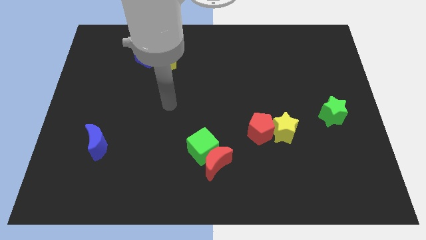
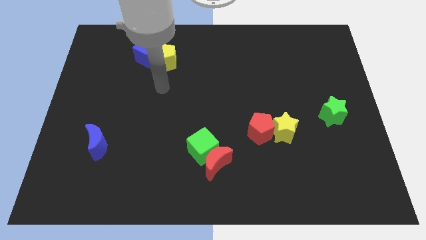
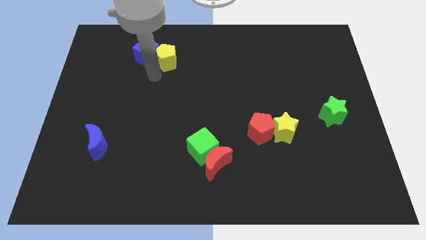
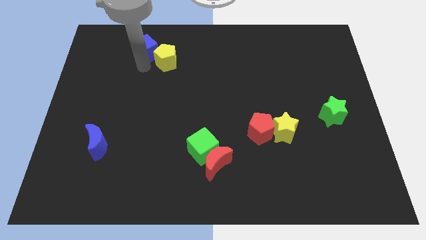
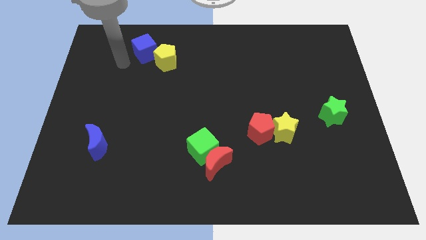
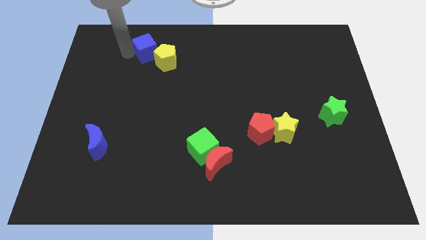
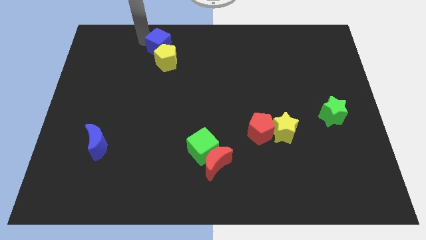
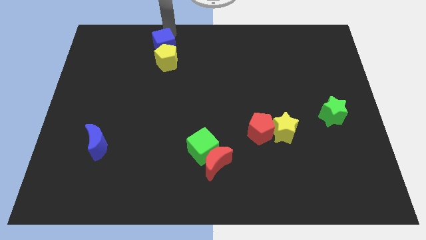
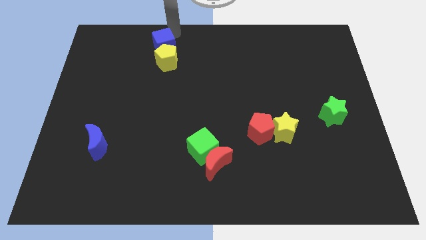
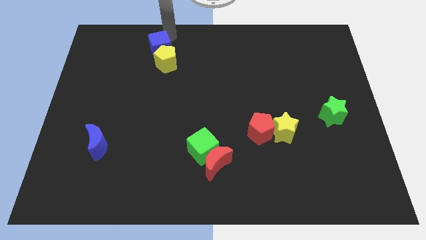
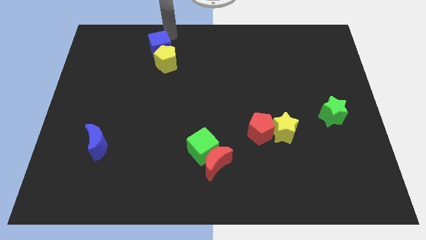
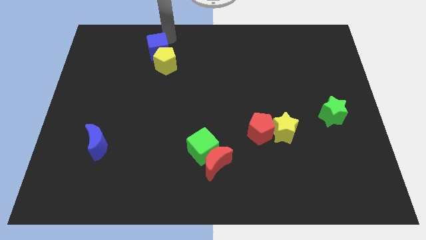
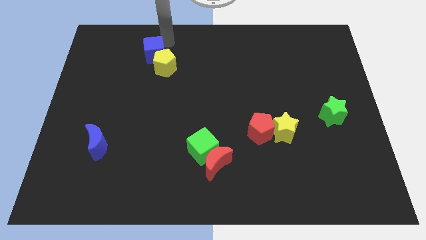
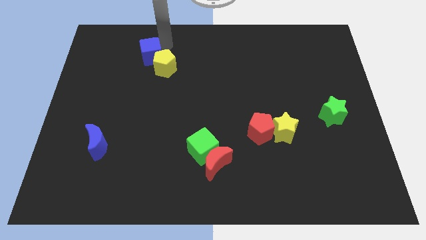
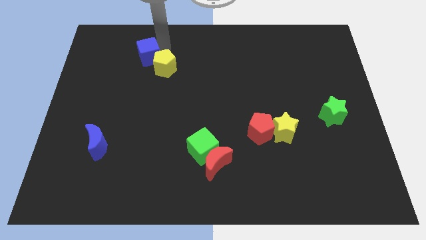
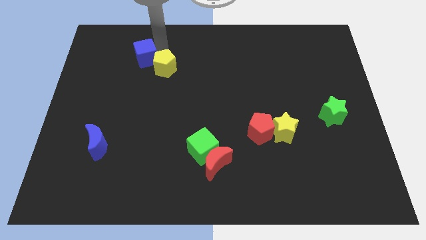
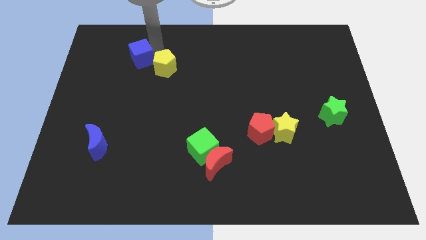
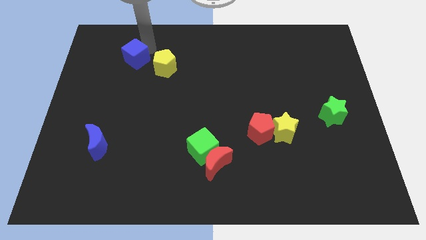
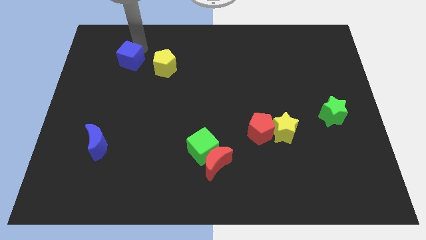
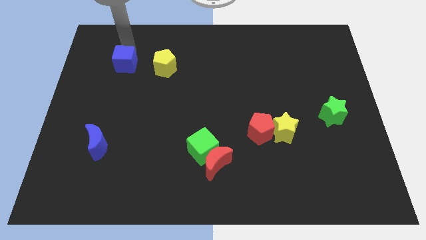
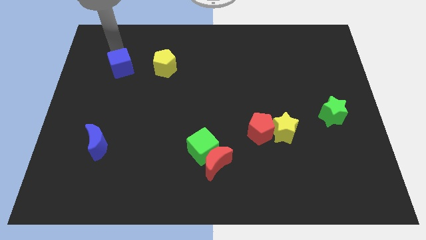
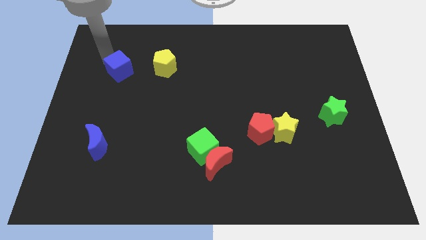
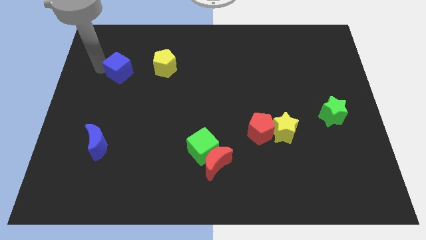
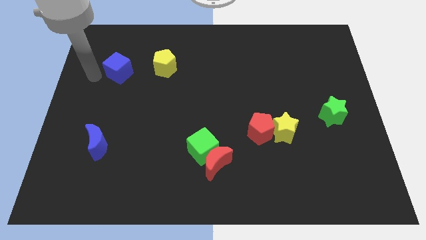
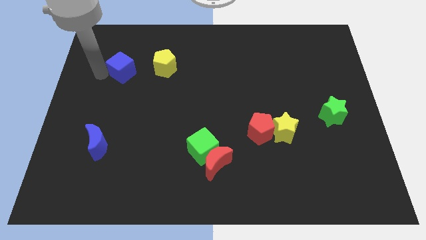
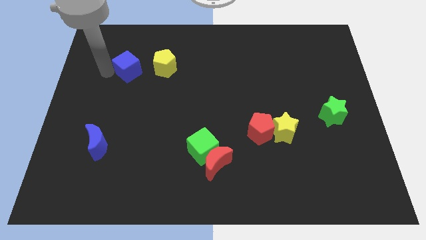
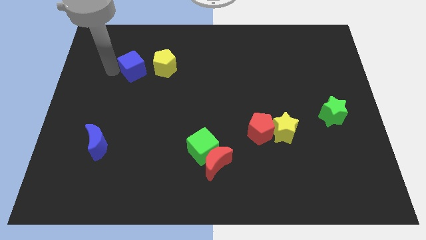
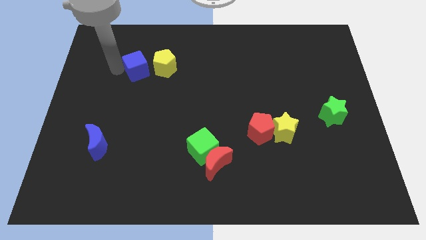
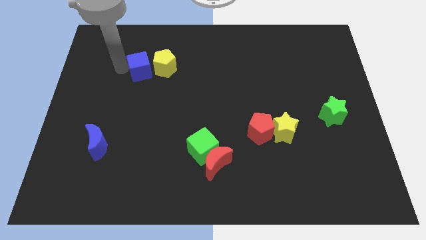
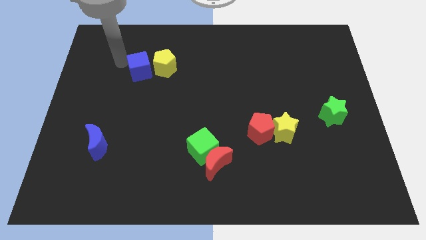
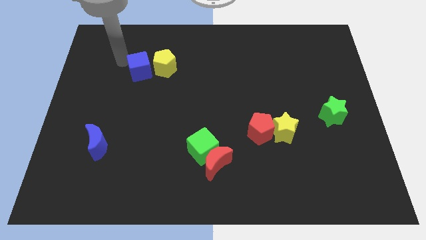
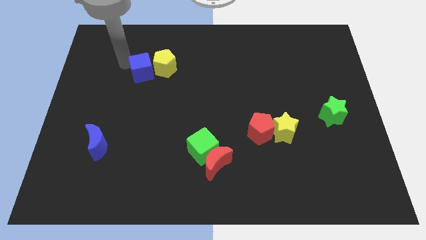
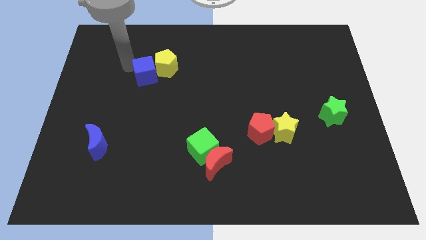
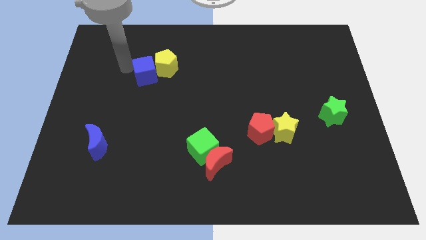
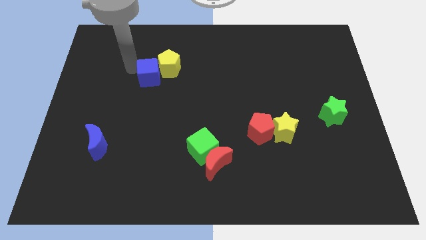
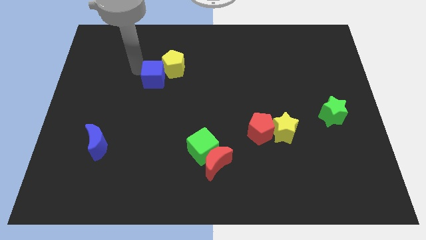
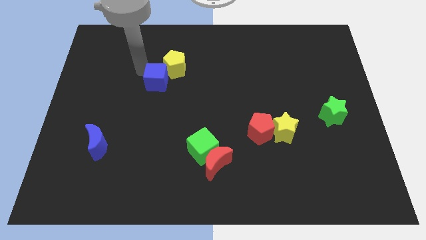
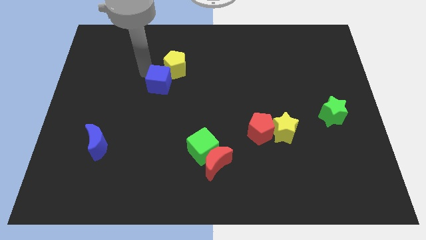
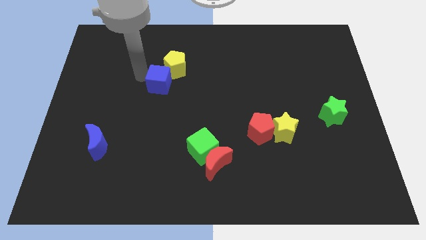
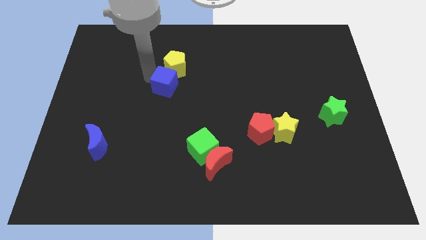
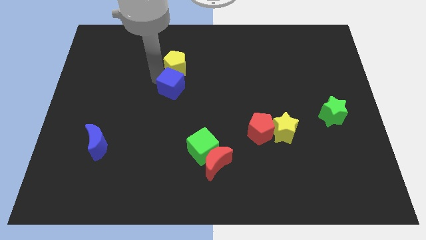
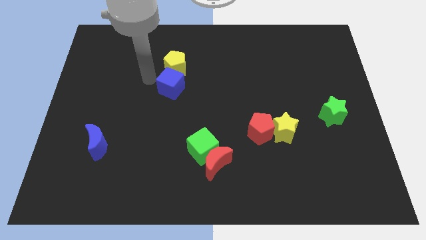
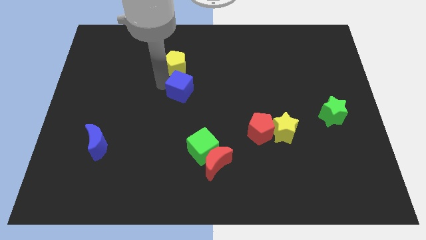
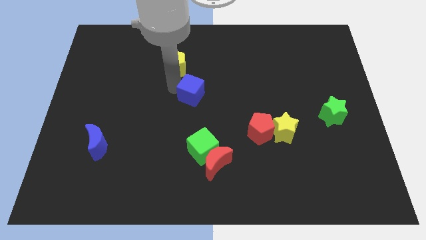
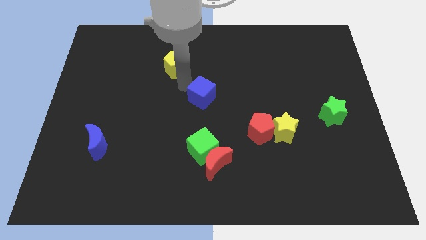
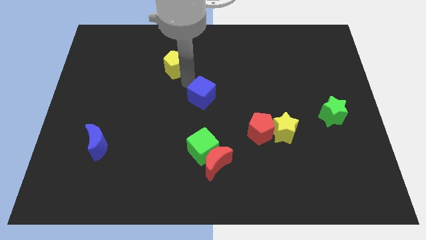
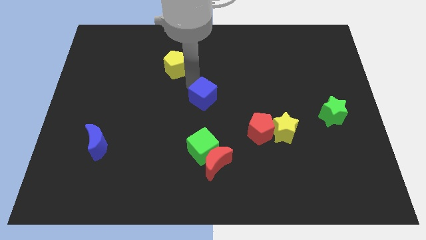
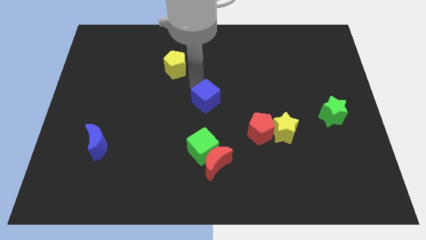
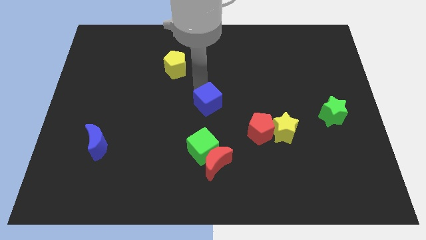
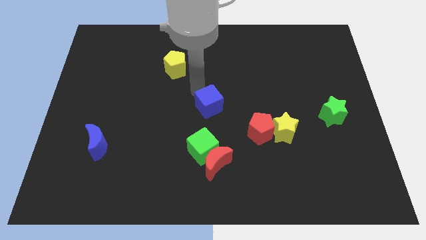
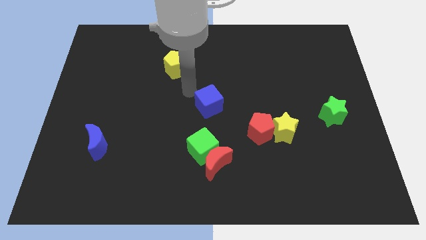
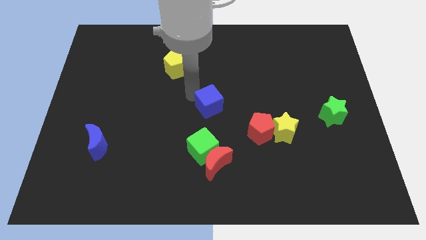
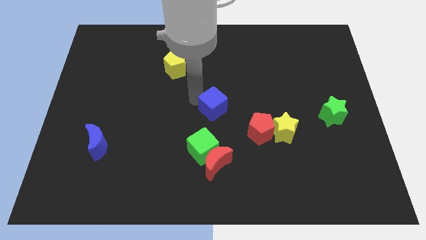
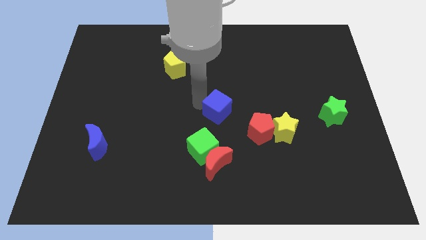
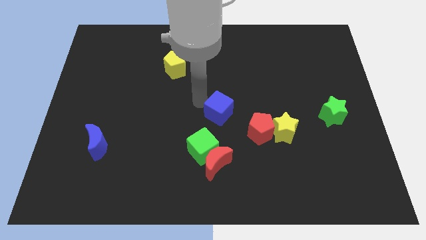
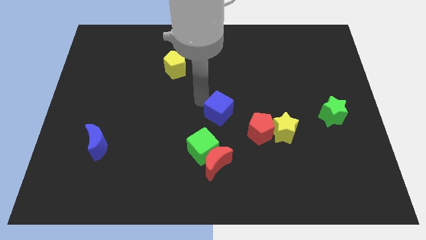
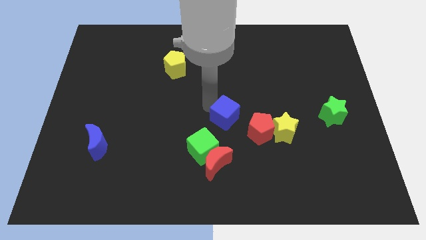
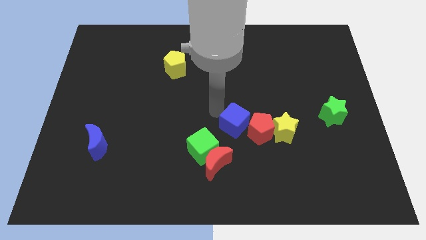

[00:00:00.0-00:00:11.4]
move the blue cube towards the red pentagon

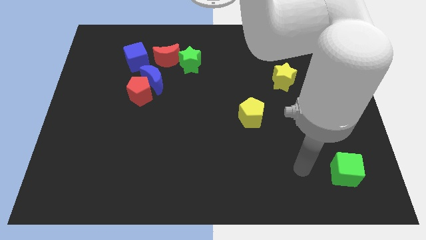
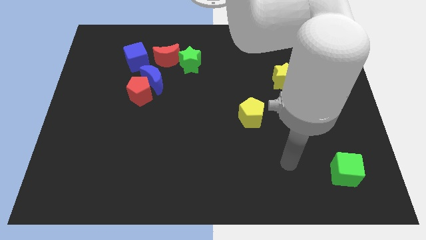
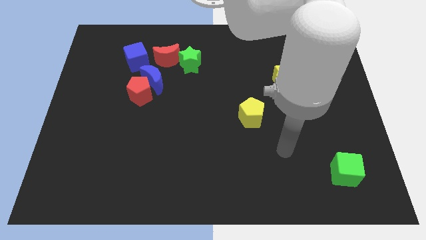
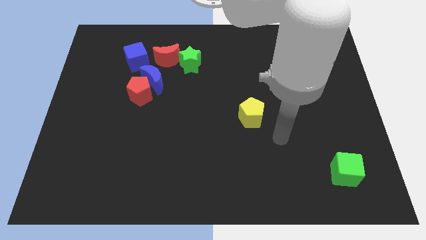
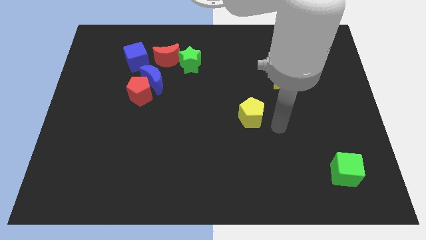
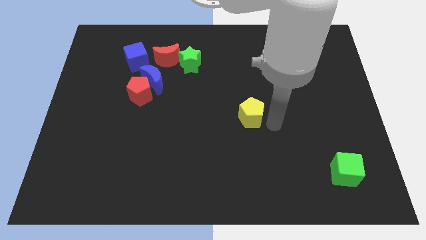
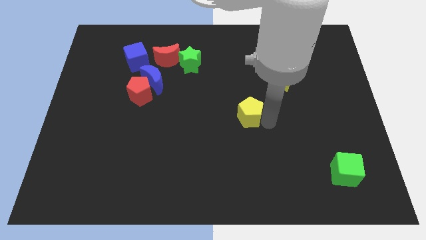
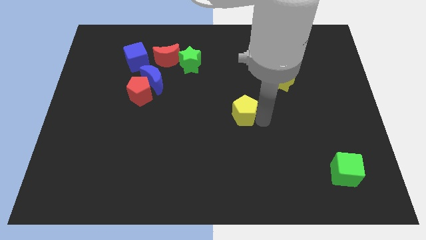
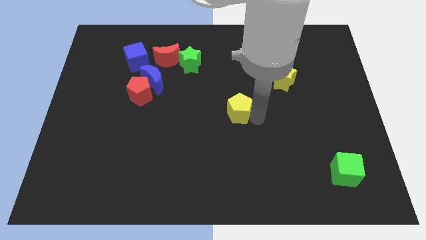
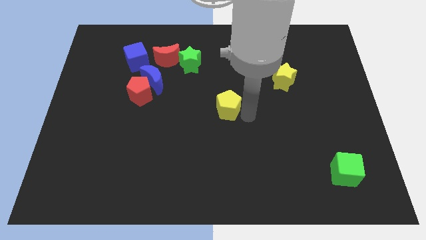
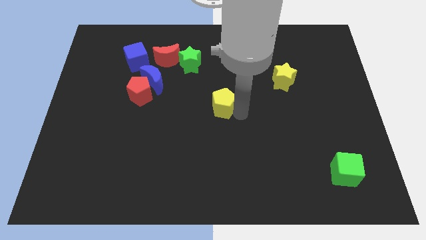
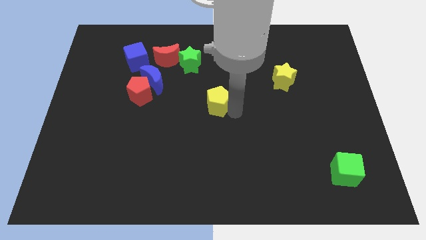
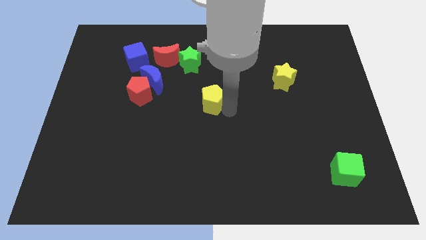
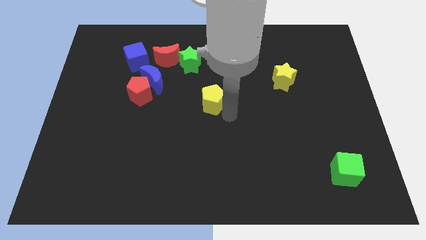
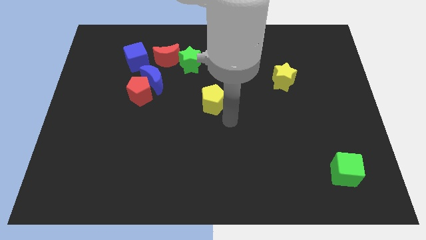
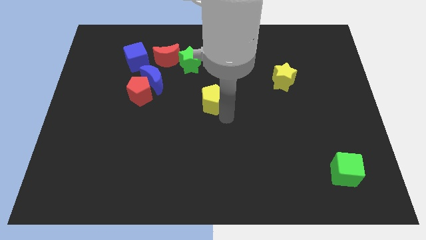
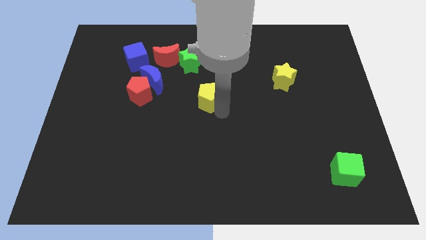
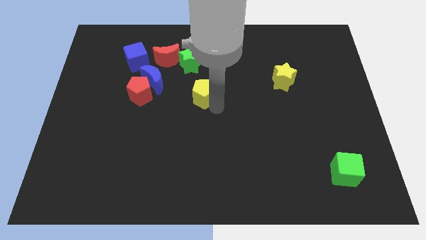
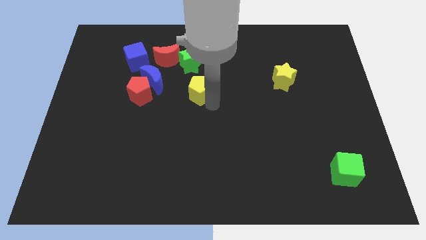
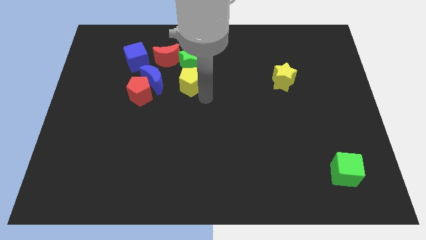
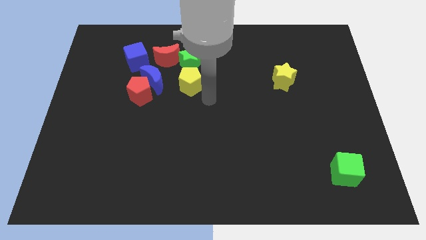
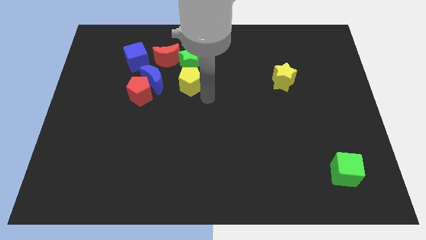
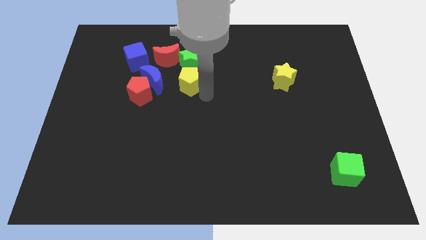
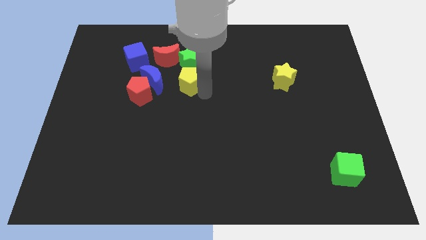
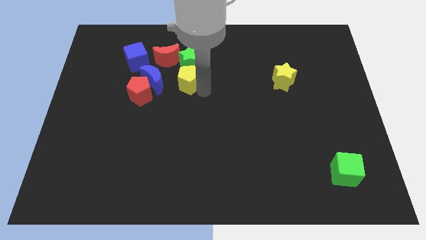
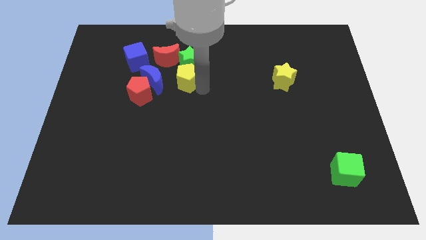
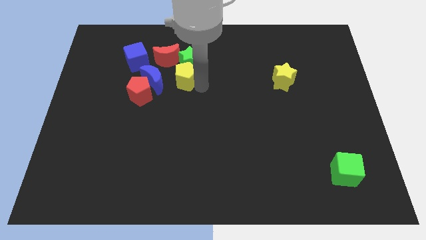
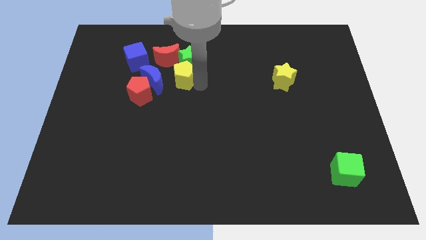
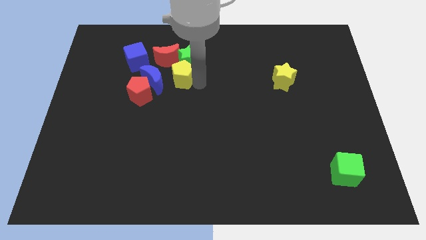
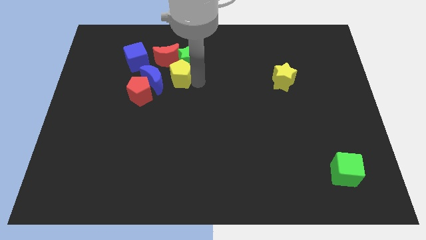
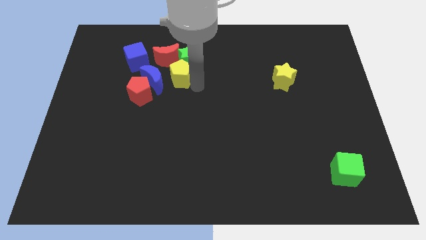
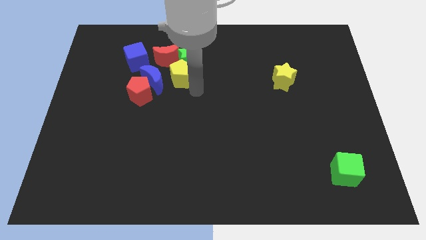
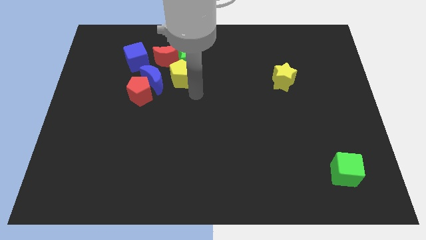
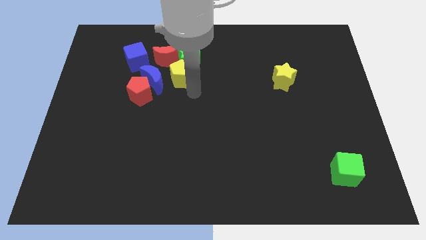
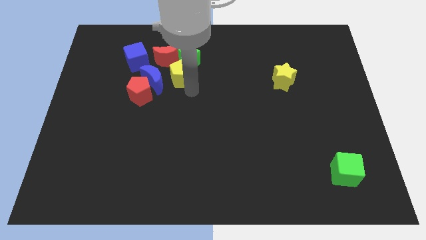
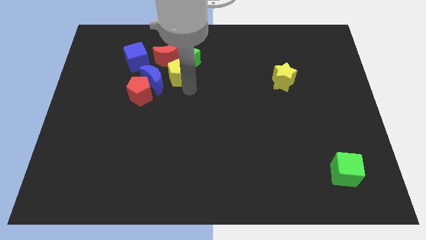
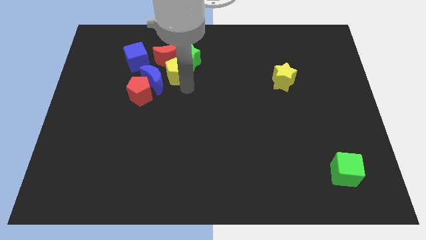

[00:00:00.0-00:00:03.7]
push the yellow pentagon next to the red moon
